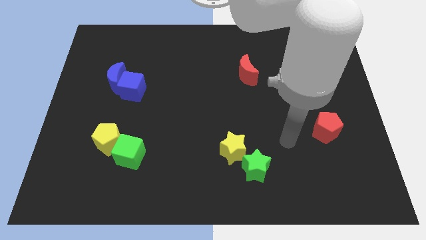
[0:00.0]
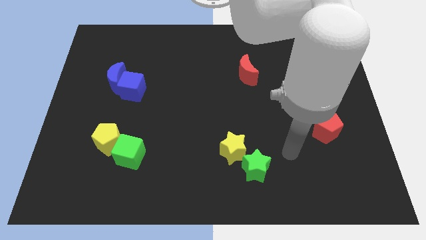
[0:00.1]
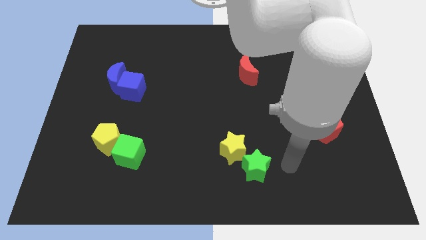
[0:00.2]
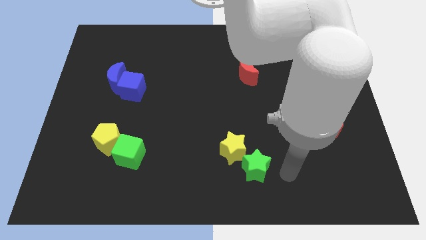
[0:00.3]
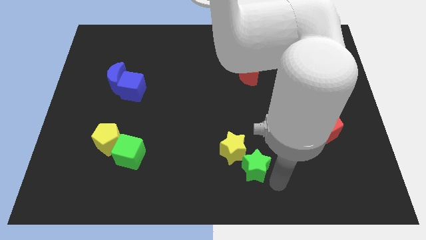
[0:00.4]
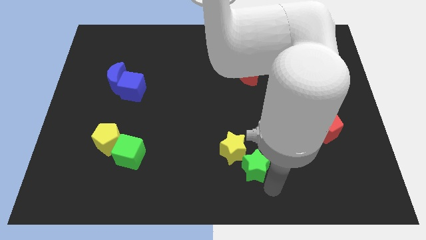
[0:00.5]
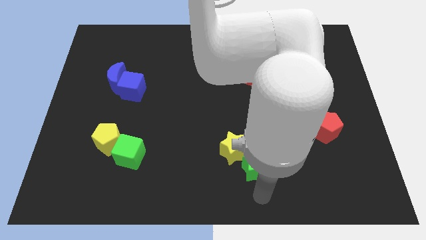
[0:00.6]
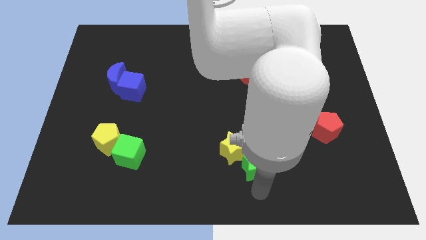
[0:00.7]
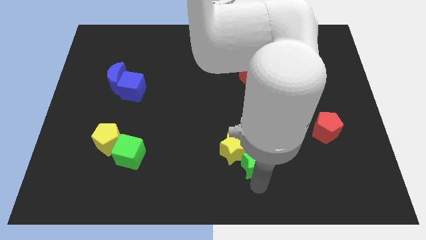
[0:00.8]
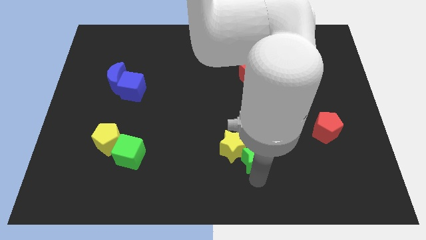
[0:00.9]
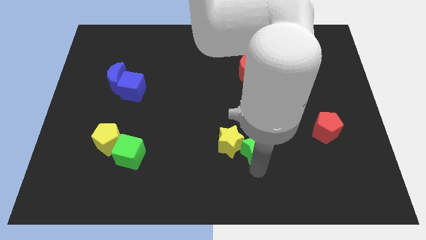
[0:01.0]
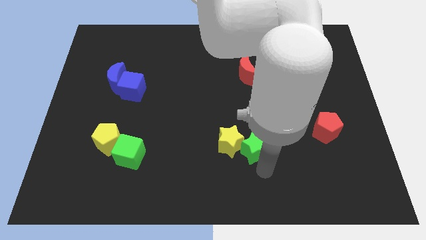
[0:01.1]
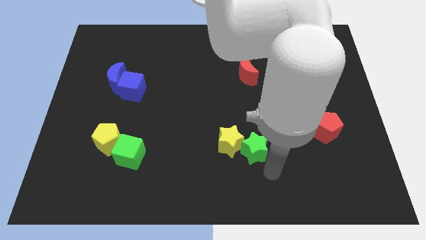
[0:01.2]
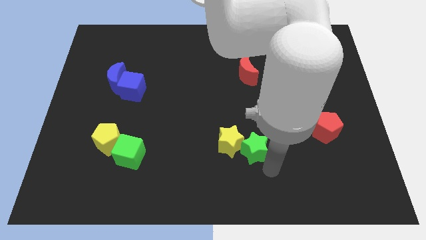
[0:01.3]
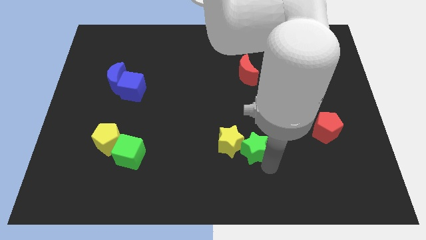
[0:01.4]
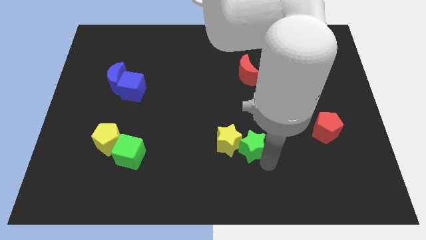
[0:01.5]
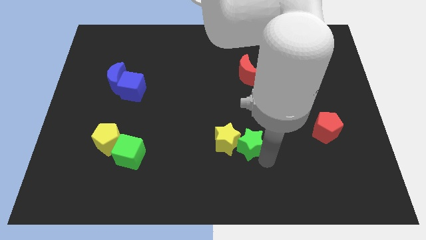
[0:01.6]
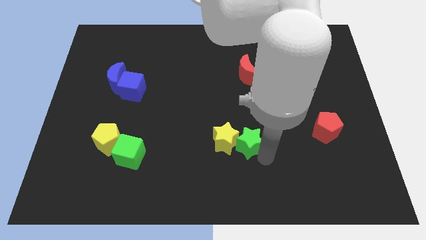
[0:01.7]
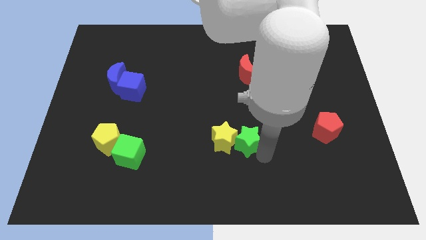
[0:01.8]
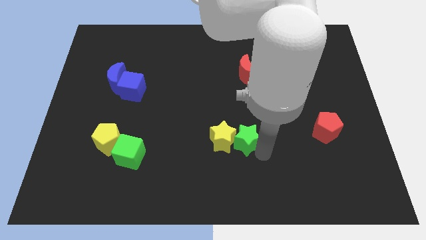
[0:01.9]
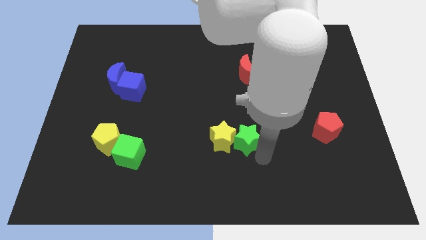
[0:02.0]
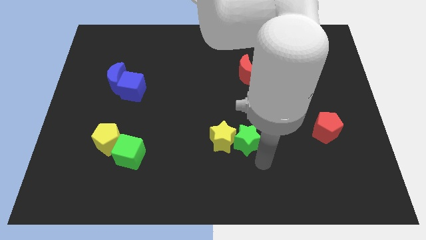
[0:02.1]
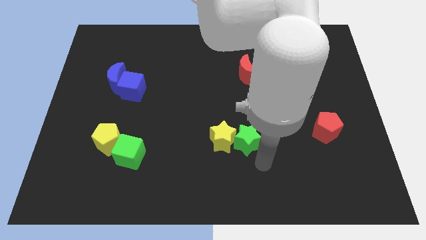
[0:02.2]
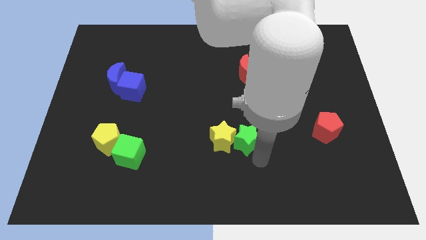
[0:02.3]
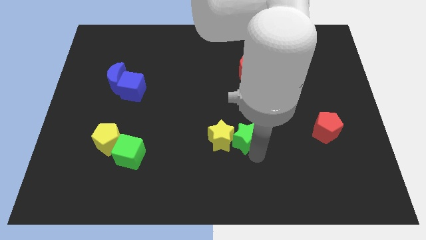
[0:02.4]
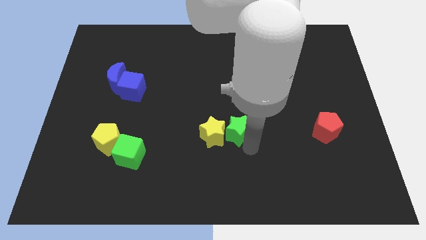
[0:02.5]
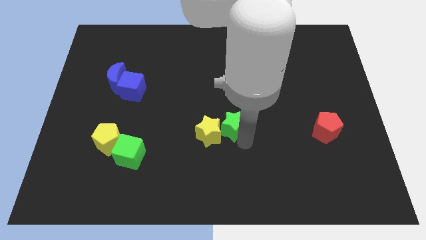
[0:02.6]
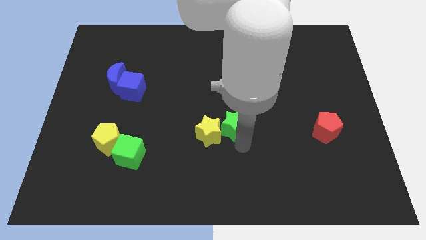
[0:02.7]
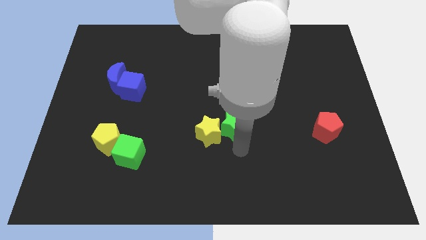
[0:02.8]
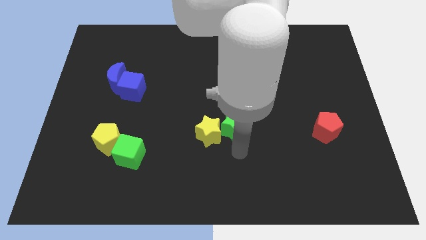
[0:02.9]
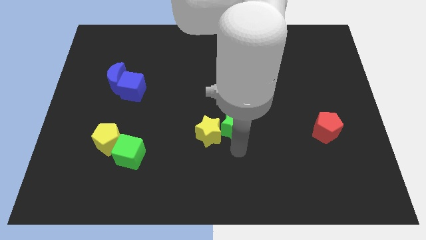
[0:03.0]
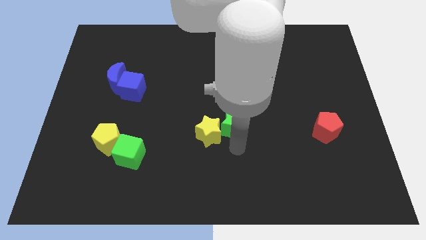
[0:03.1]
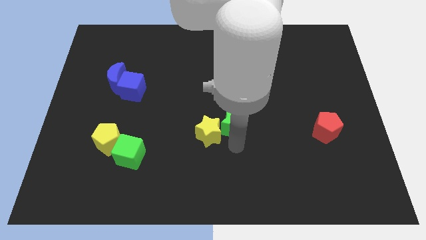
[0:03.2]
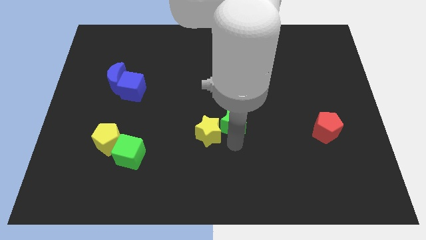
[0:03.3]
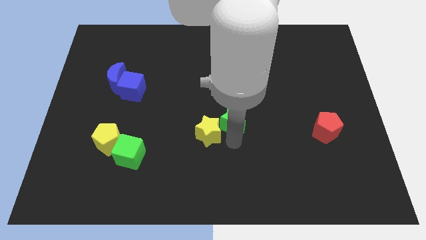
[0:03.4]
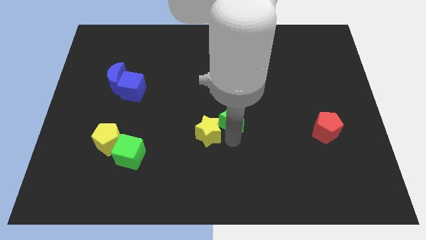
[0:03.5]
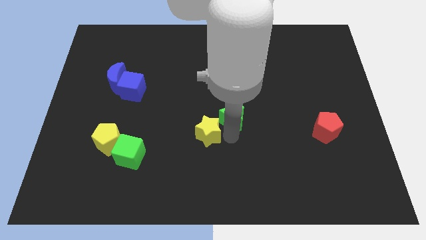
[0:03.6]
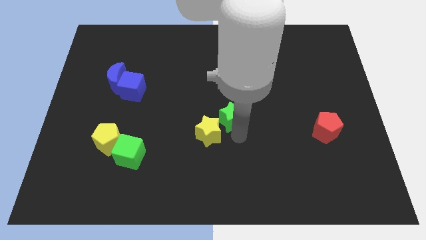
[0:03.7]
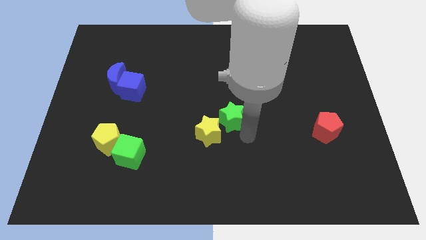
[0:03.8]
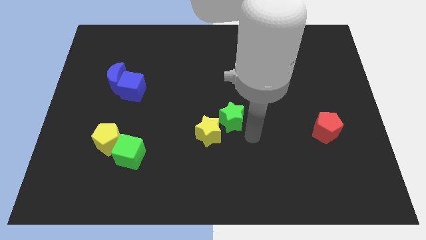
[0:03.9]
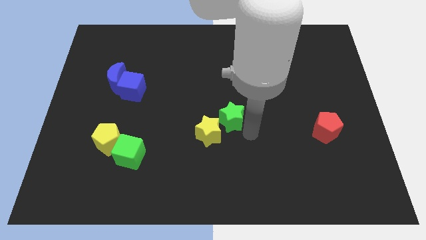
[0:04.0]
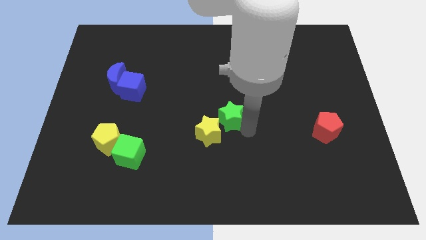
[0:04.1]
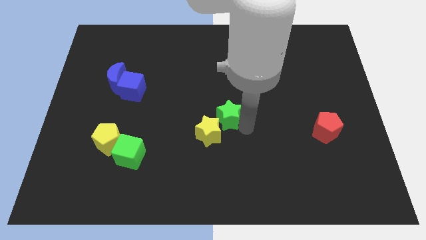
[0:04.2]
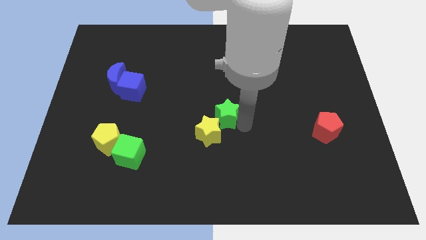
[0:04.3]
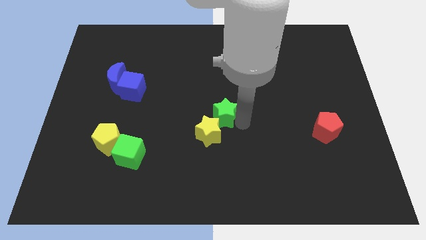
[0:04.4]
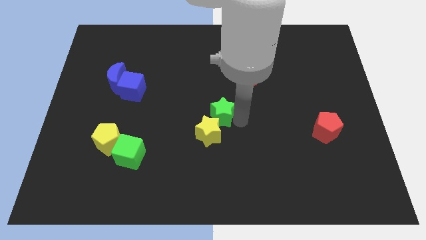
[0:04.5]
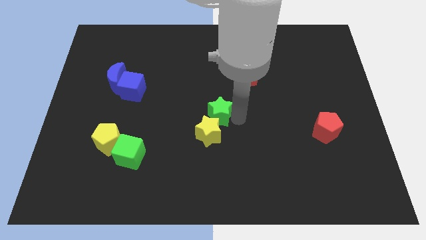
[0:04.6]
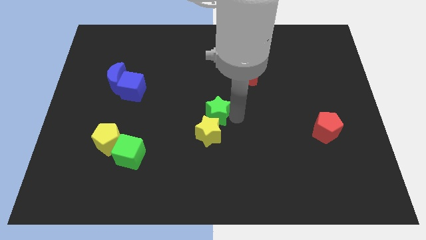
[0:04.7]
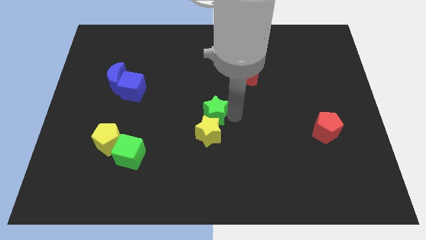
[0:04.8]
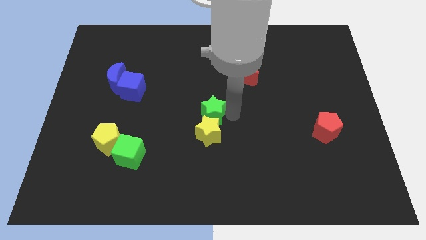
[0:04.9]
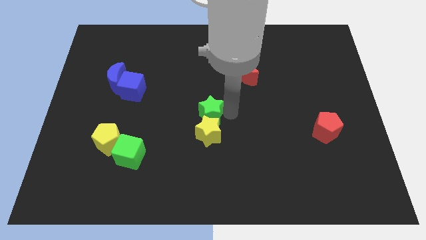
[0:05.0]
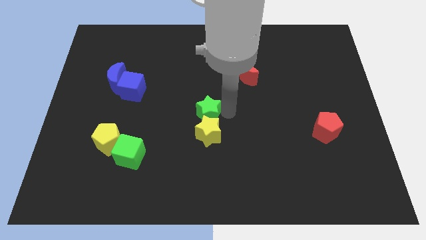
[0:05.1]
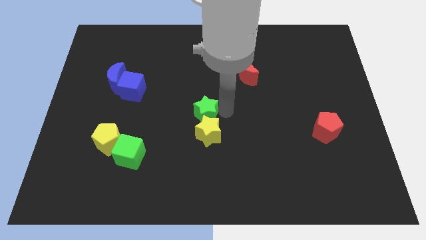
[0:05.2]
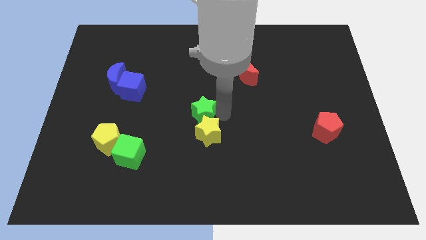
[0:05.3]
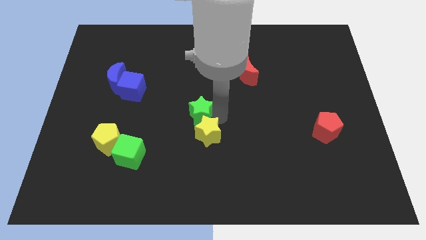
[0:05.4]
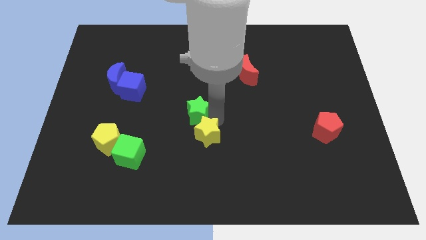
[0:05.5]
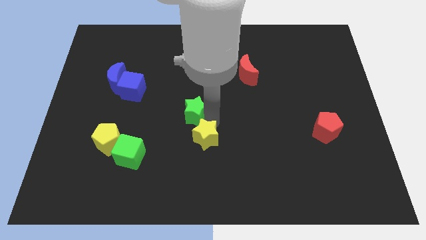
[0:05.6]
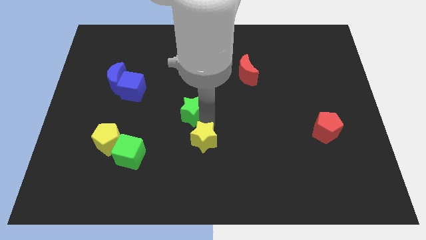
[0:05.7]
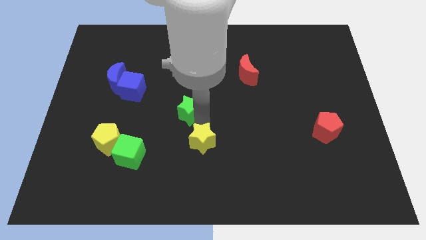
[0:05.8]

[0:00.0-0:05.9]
push the green star upwards and to the left diagonally

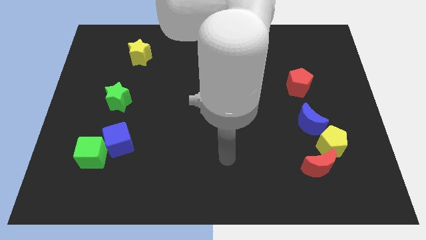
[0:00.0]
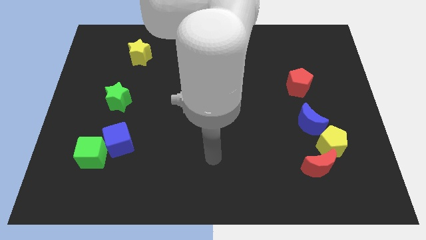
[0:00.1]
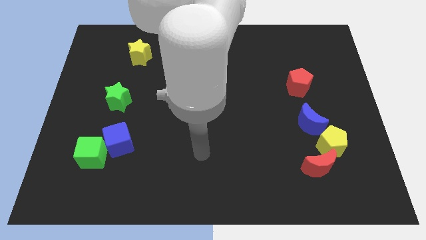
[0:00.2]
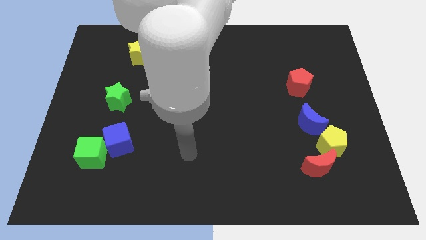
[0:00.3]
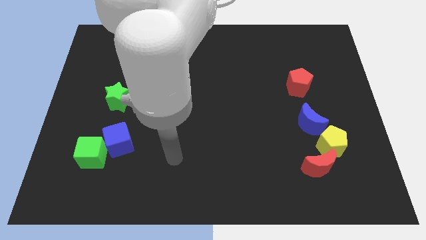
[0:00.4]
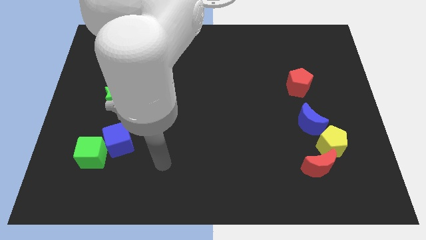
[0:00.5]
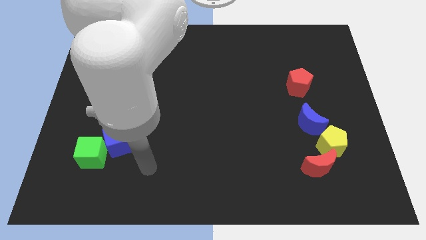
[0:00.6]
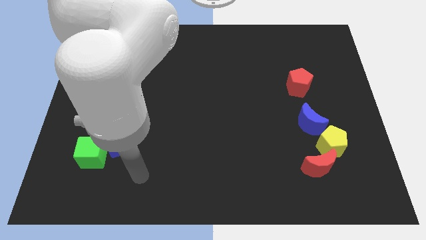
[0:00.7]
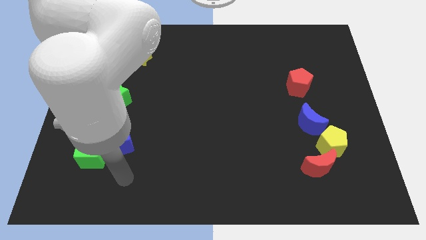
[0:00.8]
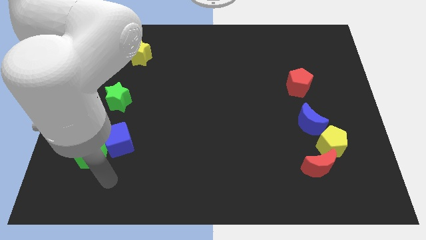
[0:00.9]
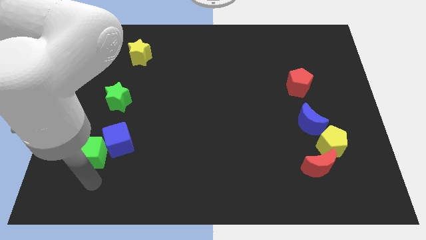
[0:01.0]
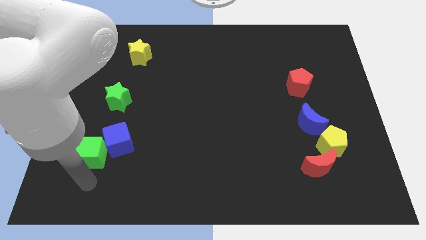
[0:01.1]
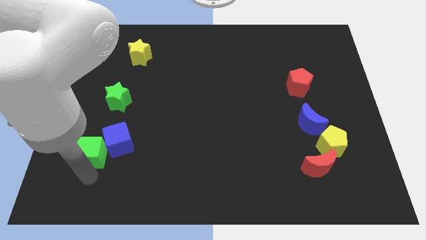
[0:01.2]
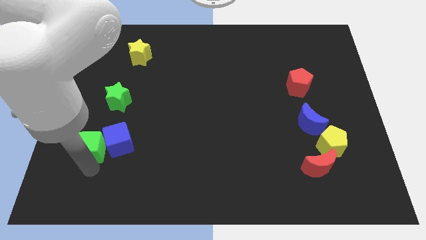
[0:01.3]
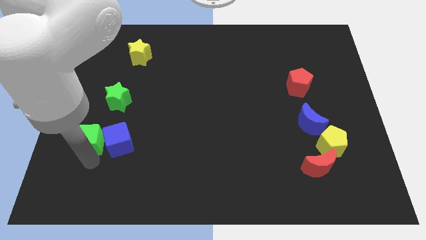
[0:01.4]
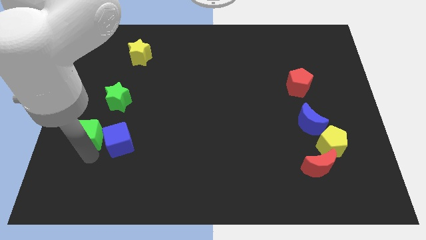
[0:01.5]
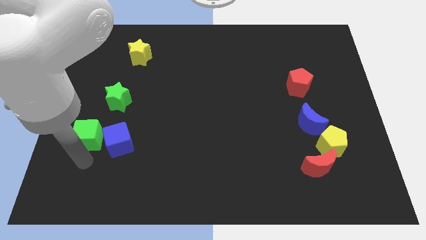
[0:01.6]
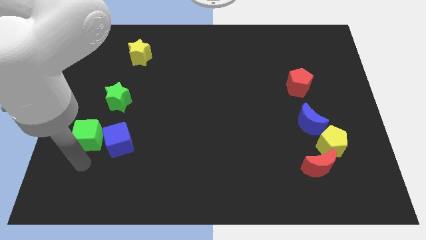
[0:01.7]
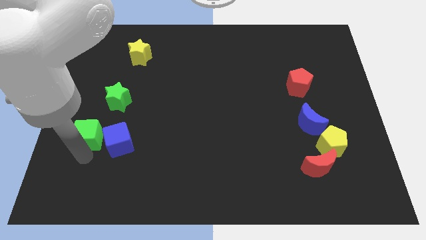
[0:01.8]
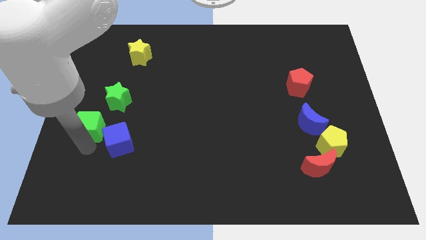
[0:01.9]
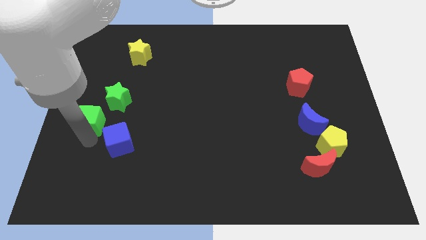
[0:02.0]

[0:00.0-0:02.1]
push the green cube a little upwards

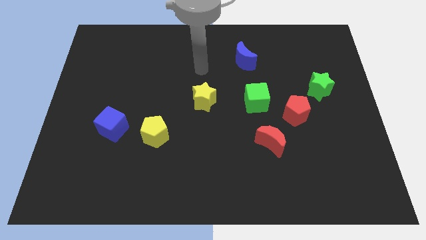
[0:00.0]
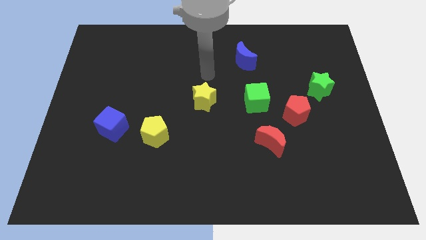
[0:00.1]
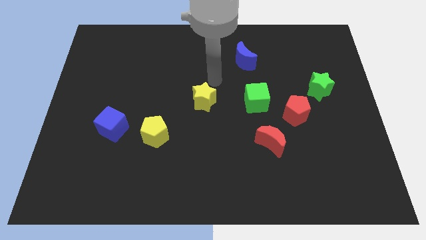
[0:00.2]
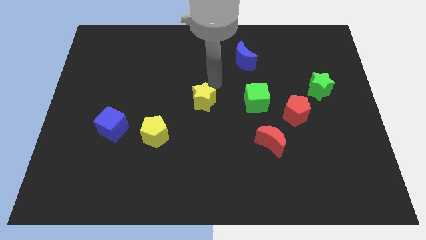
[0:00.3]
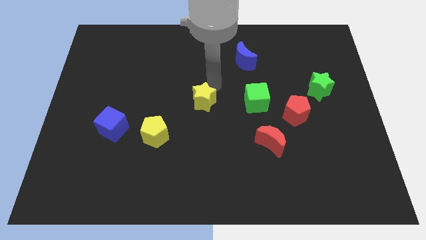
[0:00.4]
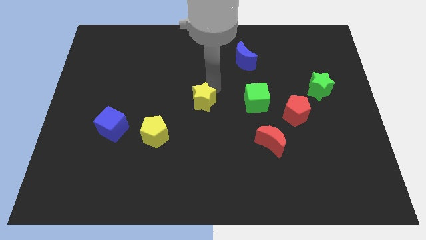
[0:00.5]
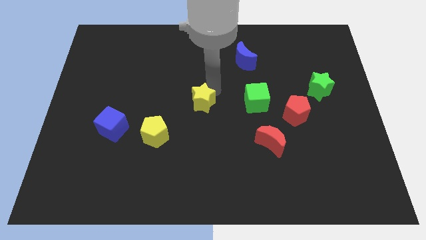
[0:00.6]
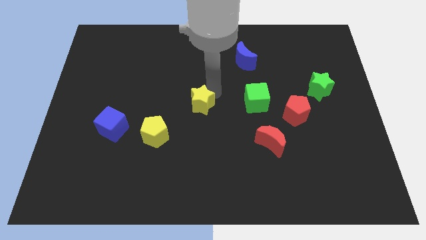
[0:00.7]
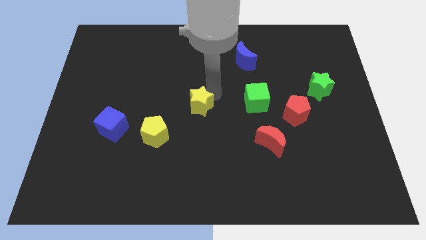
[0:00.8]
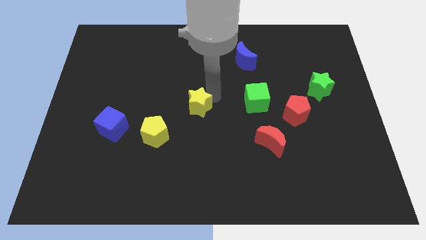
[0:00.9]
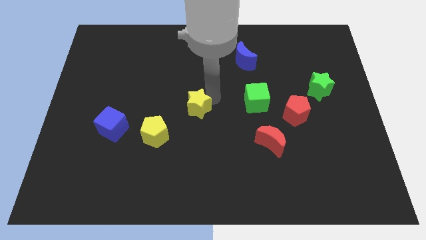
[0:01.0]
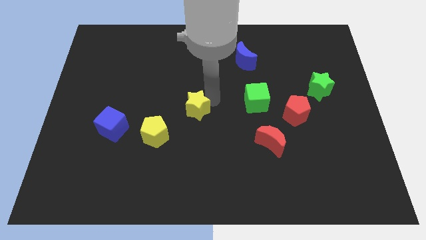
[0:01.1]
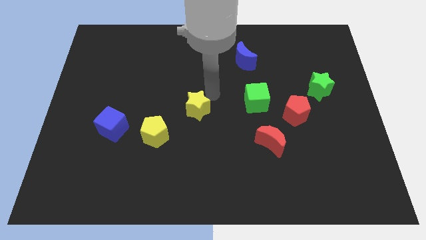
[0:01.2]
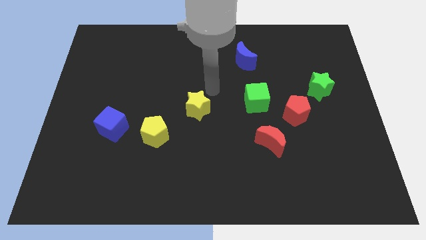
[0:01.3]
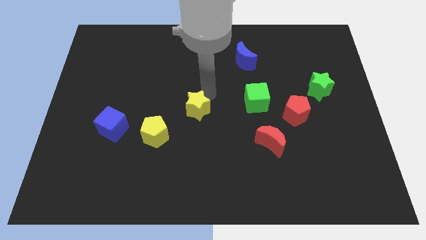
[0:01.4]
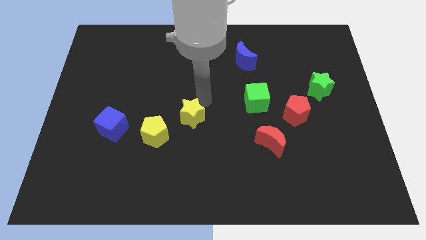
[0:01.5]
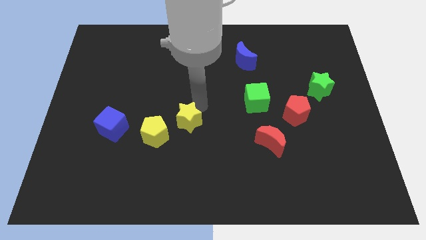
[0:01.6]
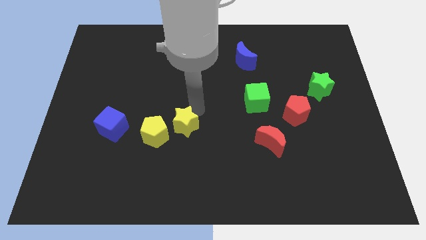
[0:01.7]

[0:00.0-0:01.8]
slightly move the yellow star diagonally down and left
